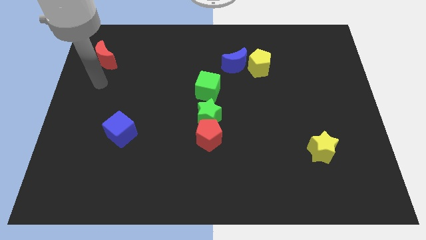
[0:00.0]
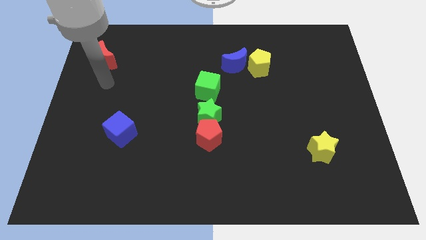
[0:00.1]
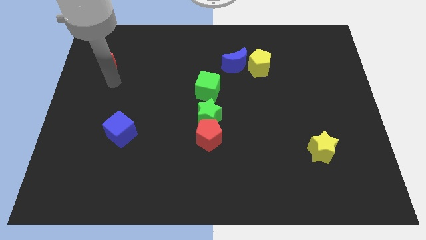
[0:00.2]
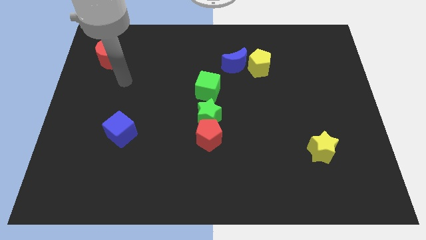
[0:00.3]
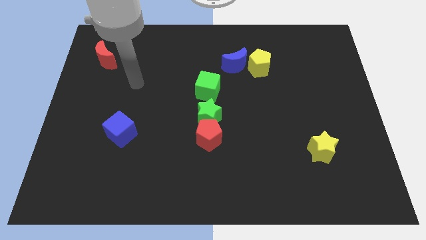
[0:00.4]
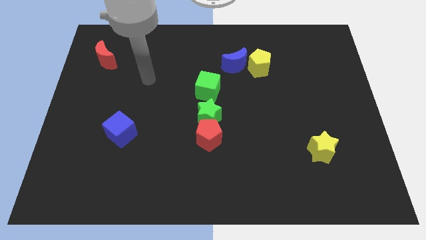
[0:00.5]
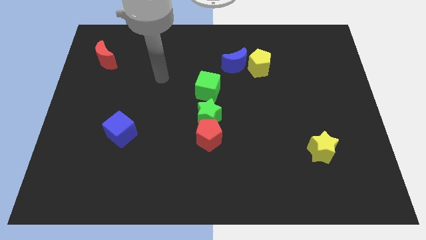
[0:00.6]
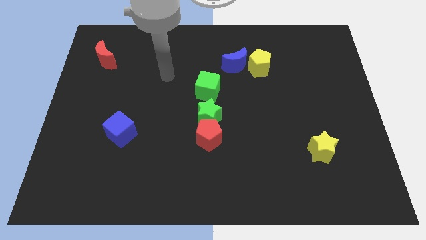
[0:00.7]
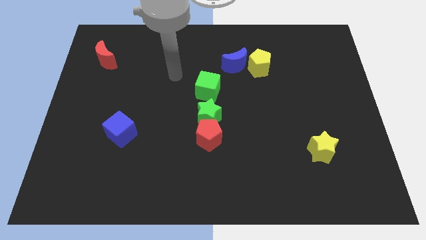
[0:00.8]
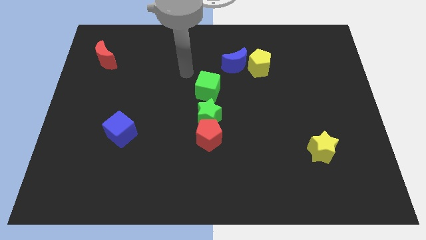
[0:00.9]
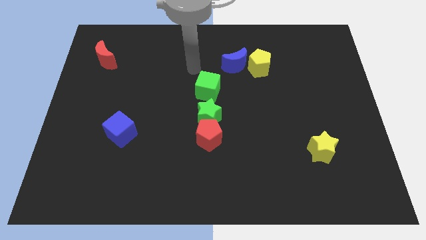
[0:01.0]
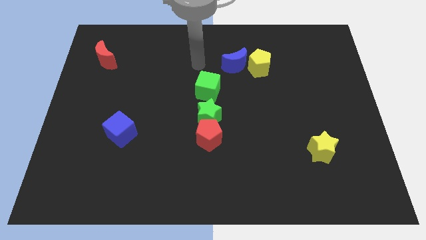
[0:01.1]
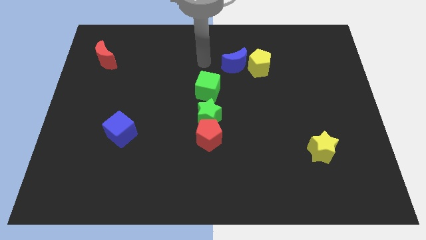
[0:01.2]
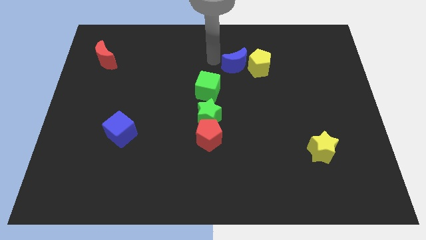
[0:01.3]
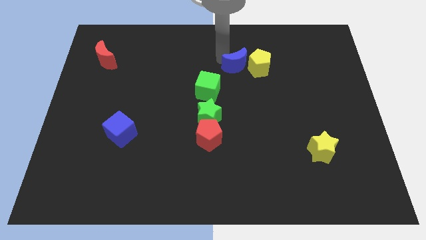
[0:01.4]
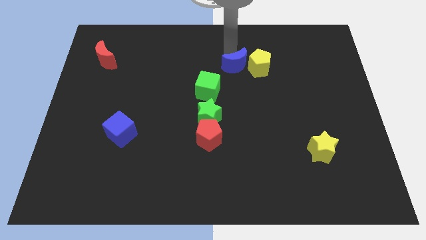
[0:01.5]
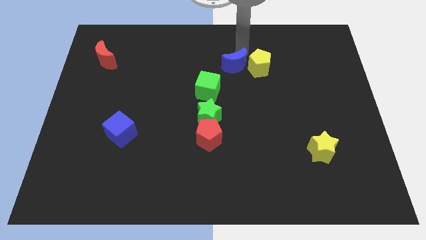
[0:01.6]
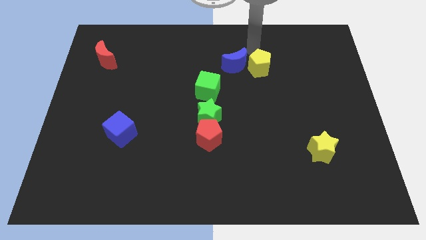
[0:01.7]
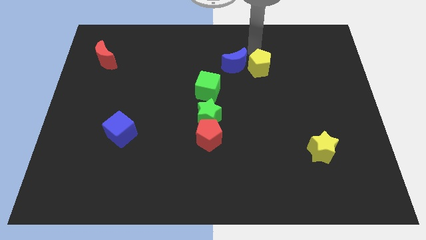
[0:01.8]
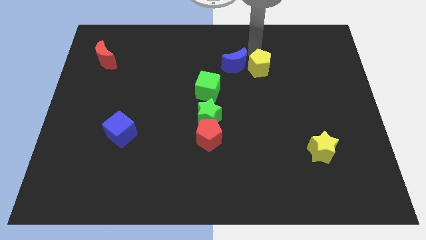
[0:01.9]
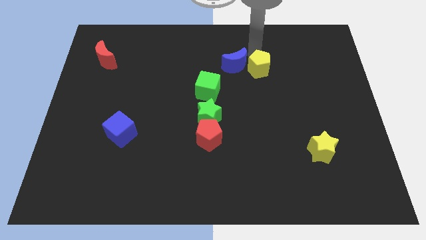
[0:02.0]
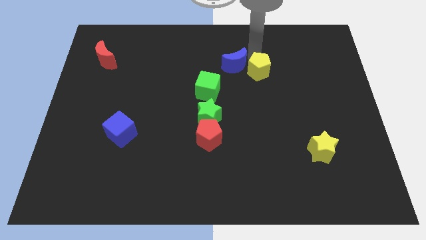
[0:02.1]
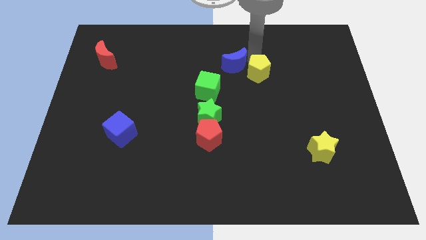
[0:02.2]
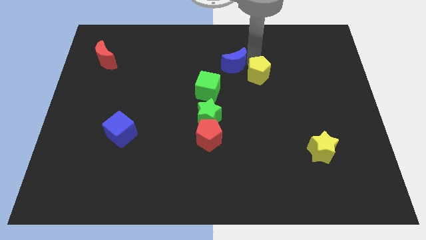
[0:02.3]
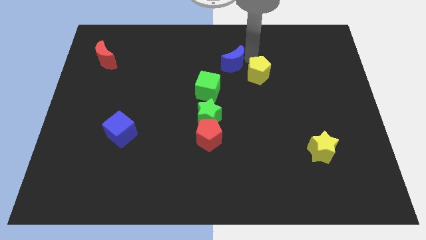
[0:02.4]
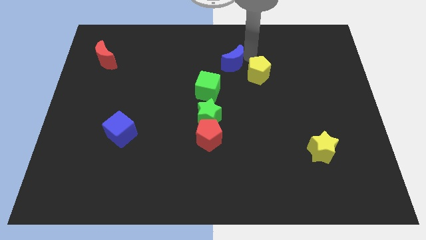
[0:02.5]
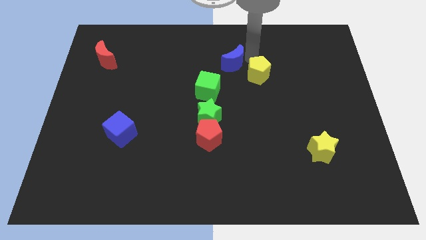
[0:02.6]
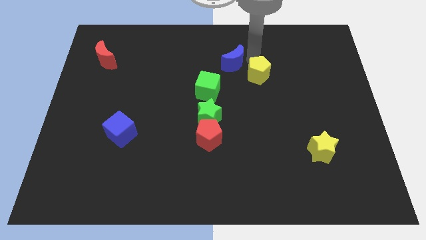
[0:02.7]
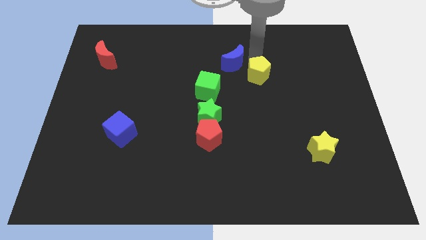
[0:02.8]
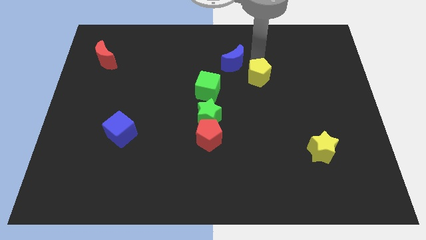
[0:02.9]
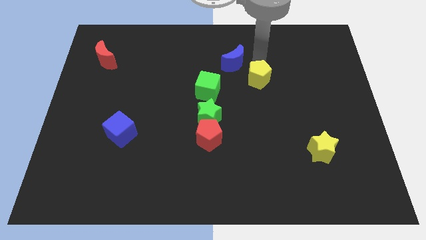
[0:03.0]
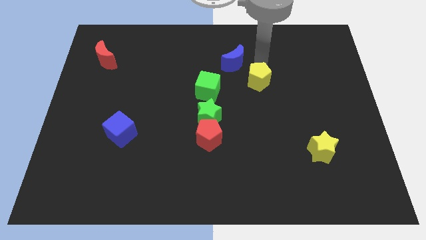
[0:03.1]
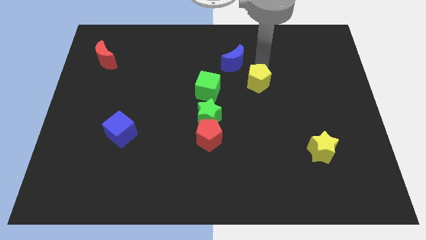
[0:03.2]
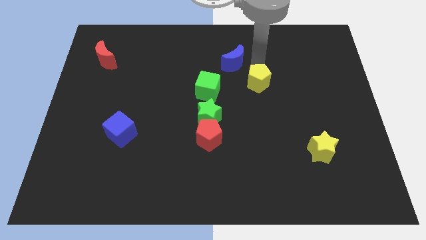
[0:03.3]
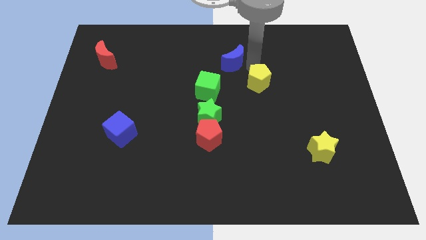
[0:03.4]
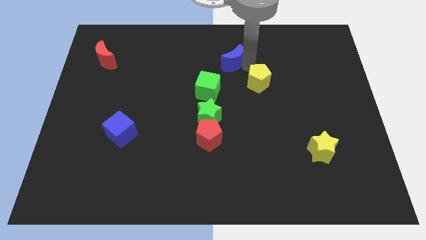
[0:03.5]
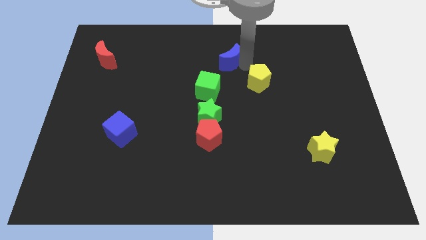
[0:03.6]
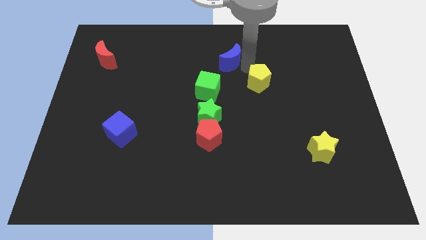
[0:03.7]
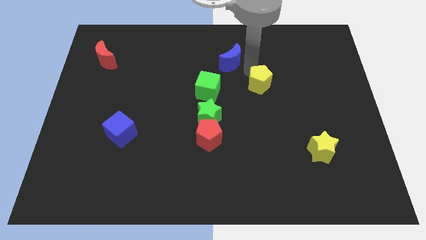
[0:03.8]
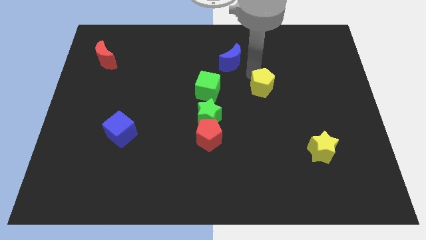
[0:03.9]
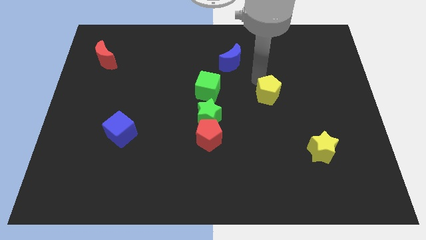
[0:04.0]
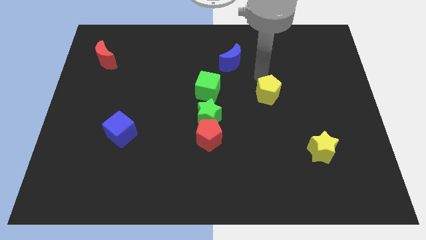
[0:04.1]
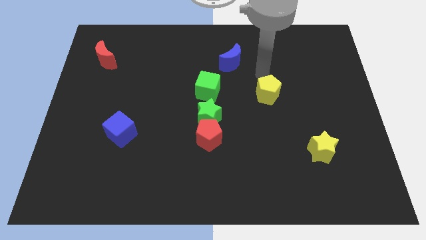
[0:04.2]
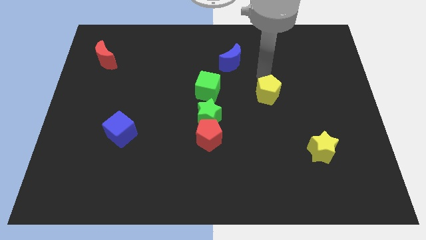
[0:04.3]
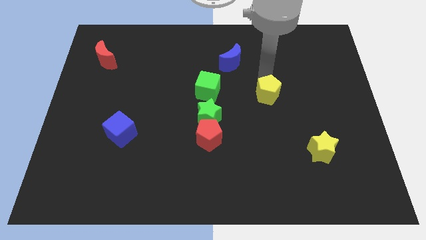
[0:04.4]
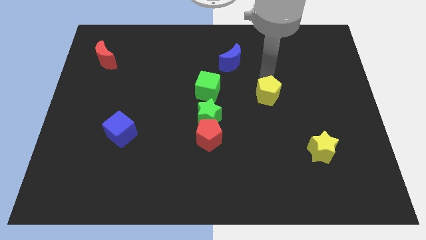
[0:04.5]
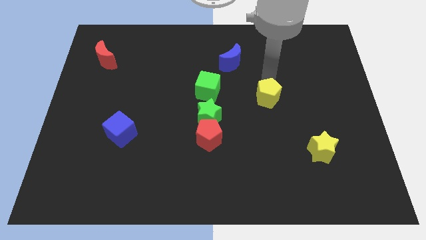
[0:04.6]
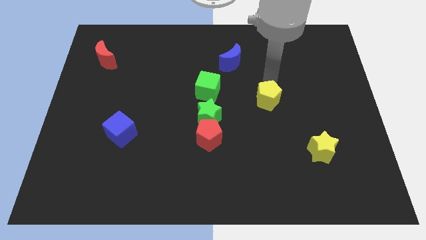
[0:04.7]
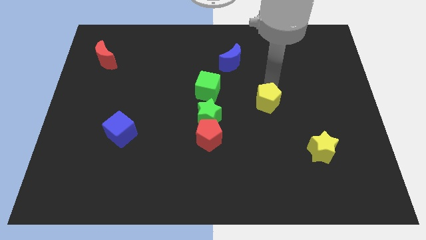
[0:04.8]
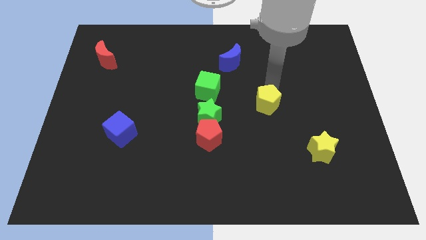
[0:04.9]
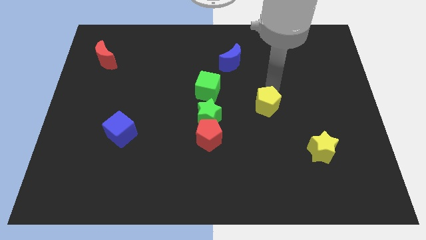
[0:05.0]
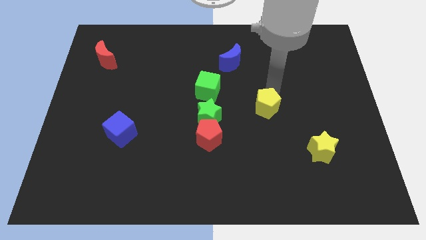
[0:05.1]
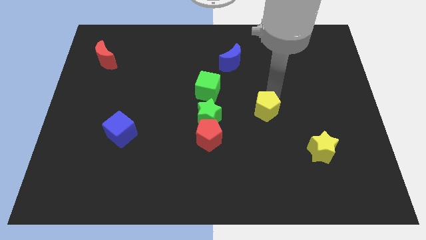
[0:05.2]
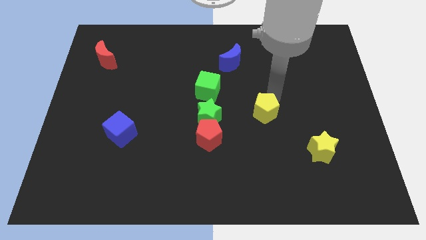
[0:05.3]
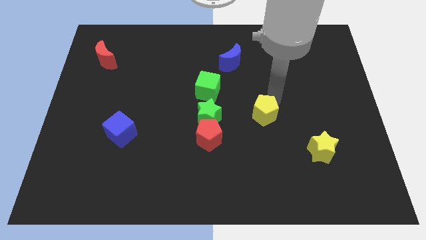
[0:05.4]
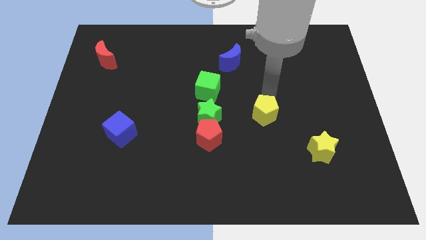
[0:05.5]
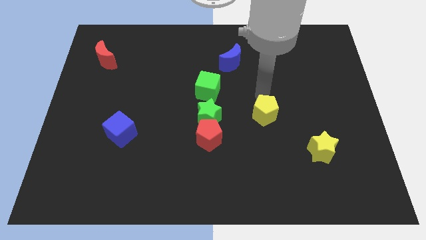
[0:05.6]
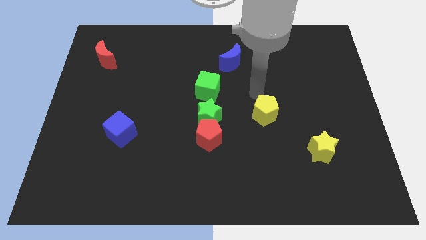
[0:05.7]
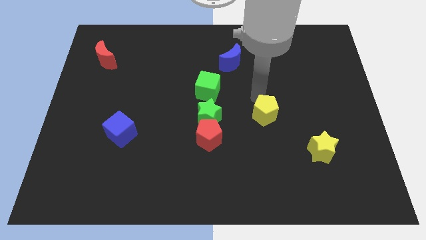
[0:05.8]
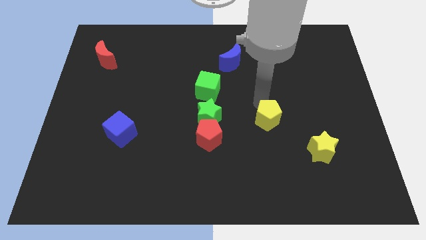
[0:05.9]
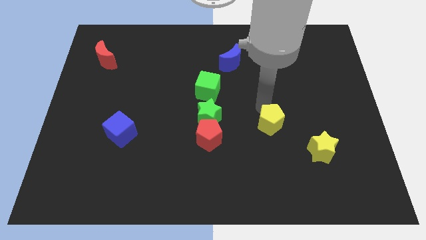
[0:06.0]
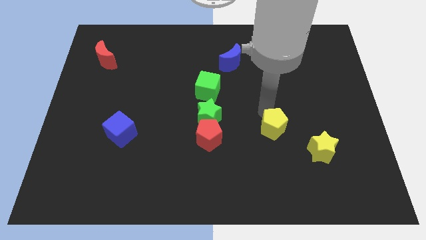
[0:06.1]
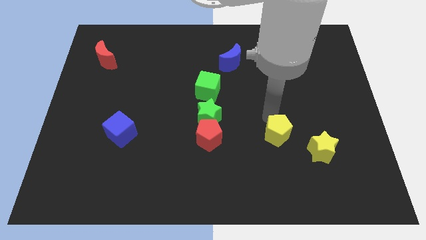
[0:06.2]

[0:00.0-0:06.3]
slide the yellow pentagon to the left of the yellow star
